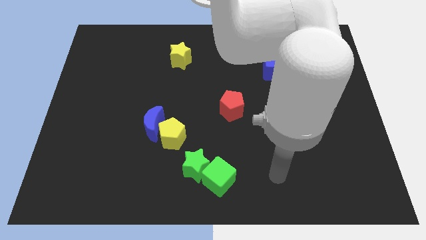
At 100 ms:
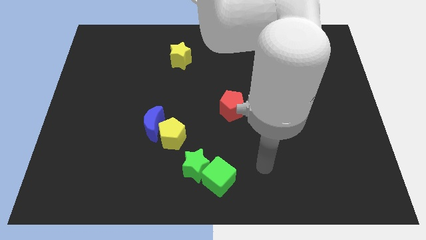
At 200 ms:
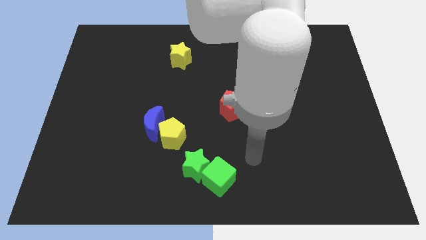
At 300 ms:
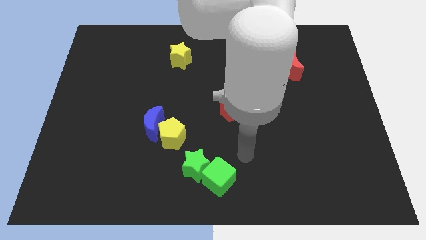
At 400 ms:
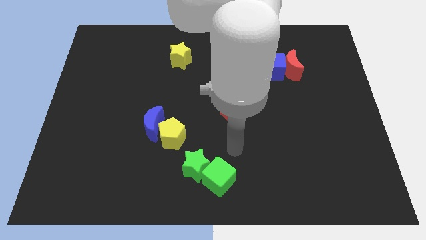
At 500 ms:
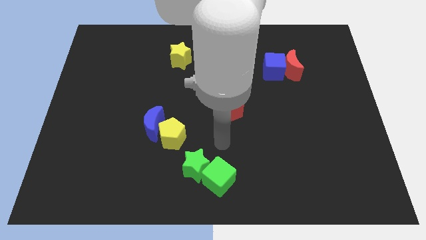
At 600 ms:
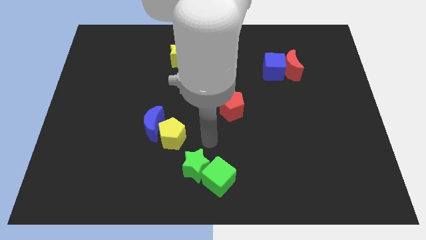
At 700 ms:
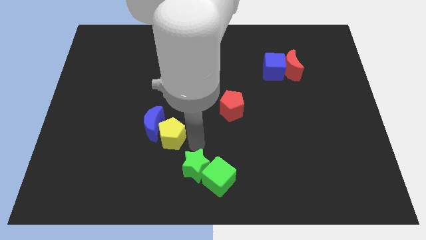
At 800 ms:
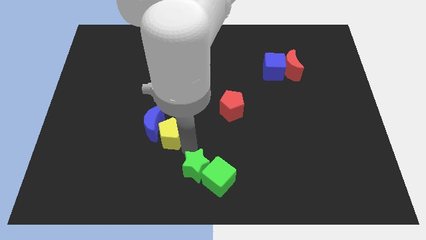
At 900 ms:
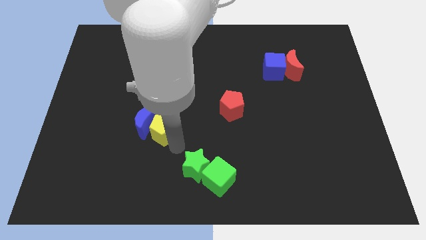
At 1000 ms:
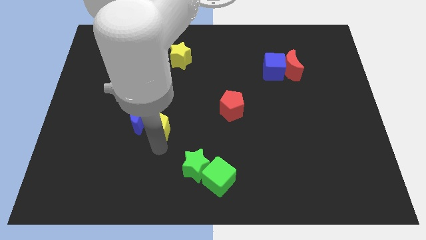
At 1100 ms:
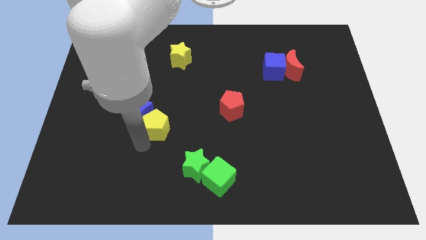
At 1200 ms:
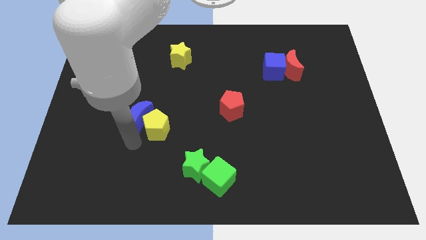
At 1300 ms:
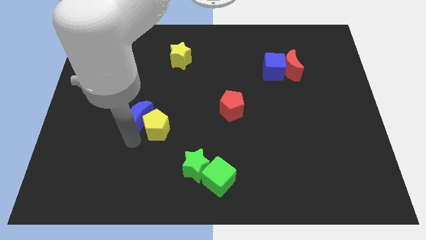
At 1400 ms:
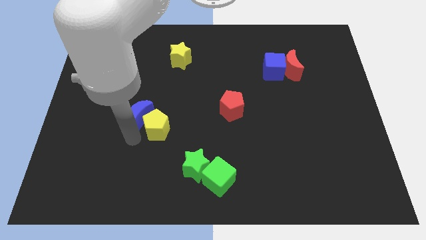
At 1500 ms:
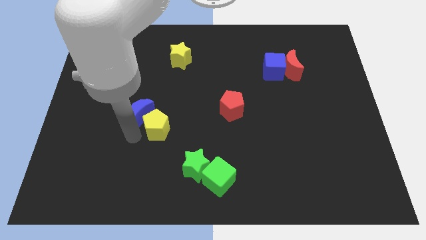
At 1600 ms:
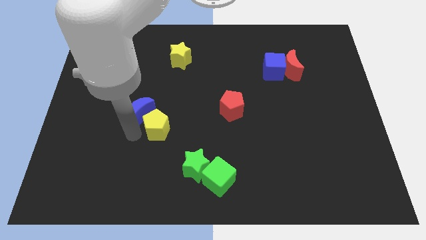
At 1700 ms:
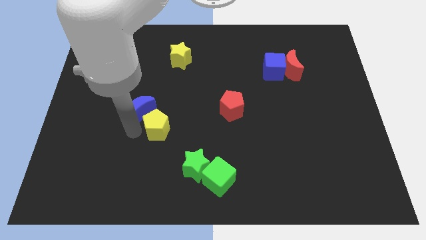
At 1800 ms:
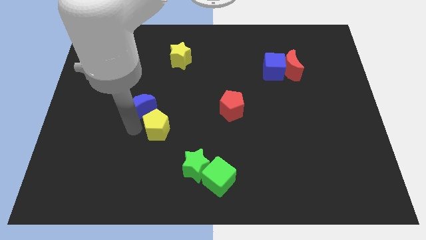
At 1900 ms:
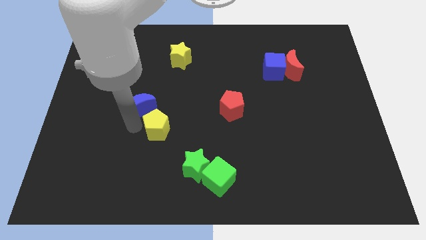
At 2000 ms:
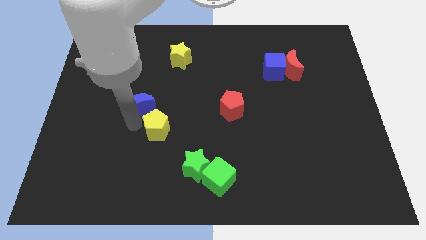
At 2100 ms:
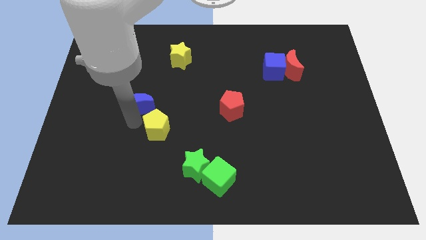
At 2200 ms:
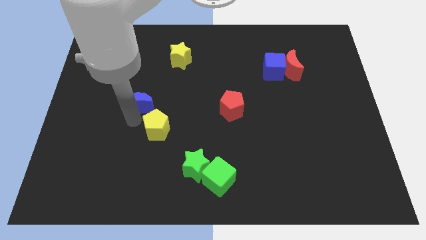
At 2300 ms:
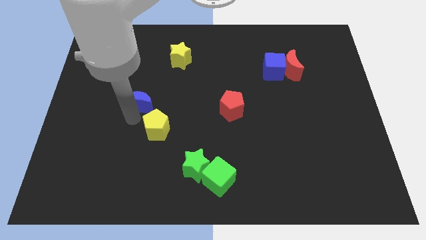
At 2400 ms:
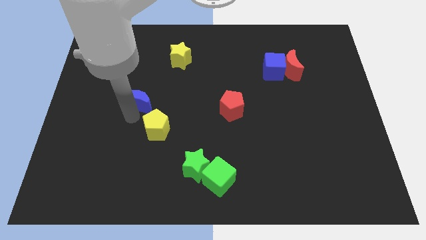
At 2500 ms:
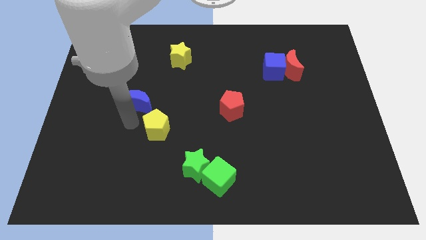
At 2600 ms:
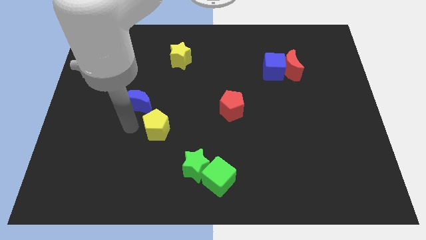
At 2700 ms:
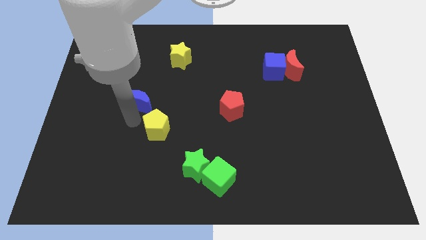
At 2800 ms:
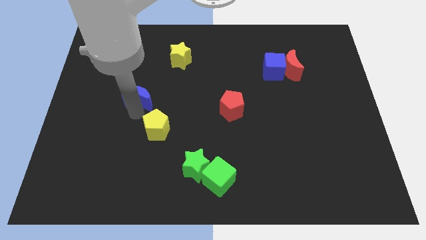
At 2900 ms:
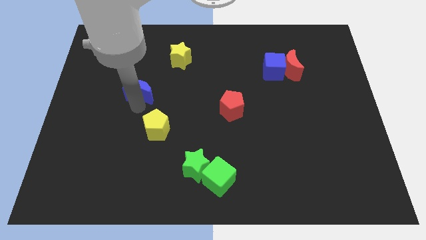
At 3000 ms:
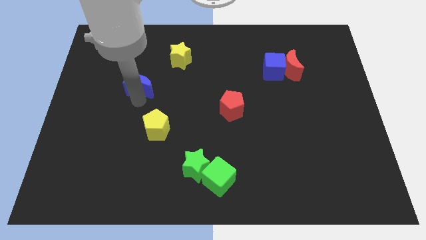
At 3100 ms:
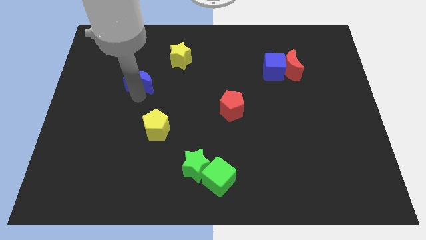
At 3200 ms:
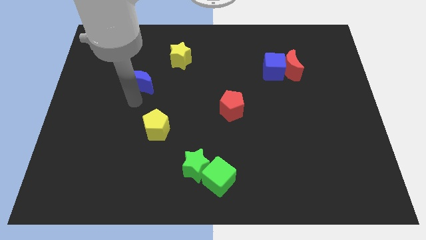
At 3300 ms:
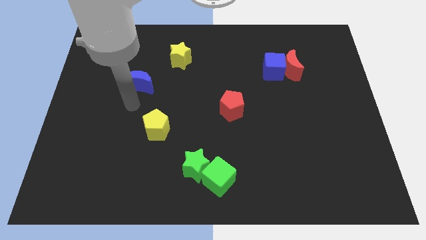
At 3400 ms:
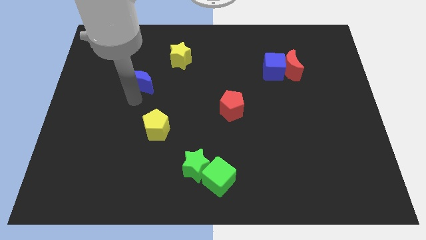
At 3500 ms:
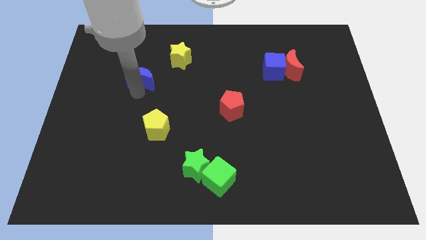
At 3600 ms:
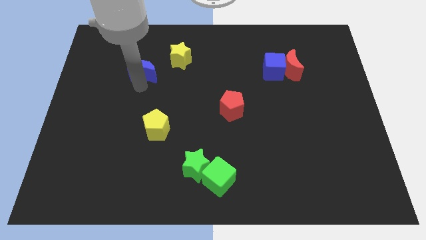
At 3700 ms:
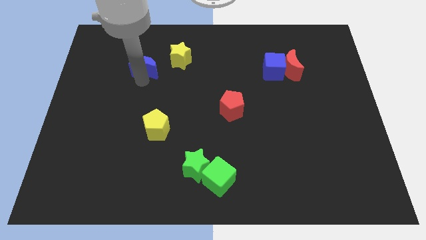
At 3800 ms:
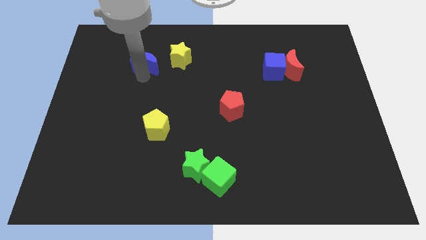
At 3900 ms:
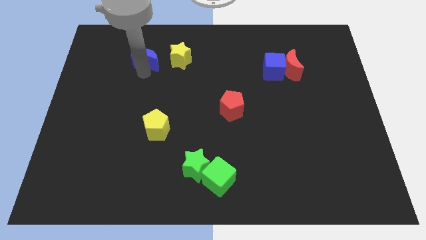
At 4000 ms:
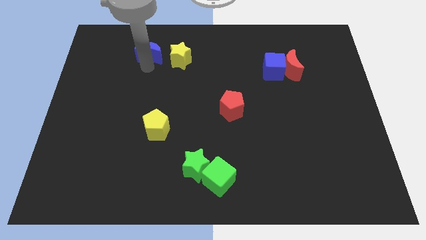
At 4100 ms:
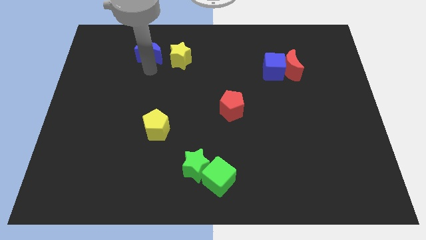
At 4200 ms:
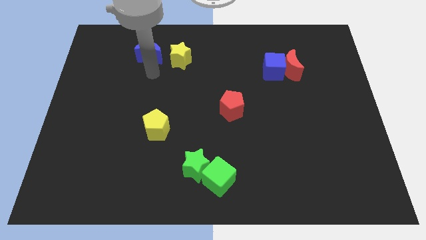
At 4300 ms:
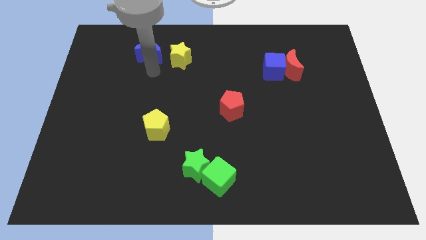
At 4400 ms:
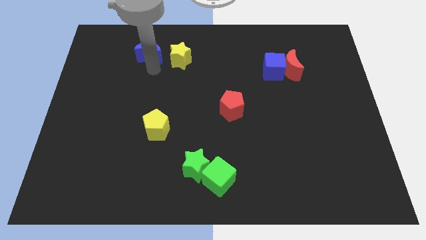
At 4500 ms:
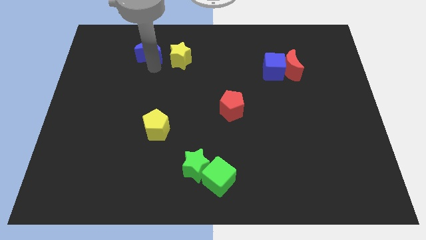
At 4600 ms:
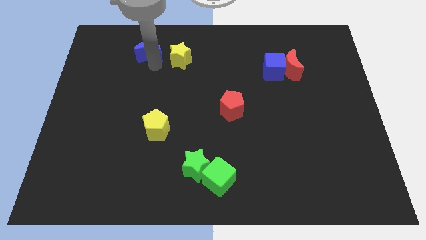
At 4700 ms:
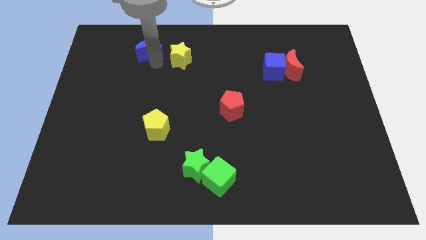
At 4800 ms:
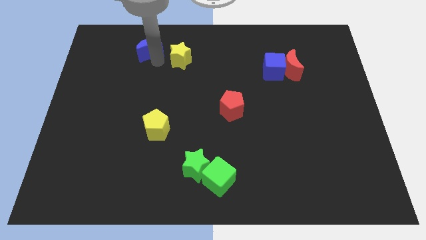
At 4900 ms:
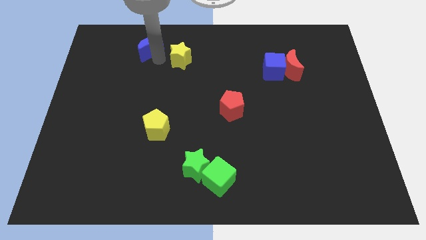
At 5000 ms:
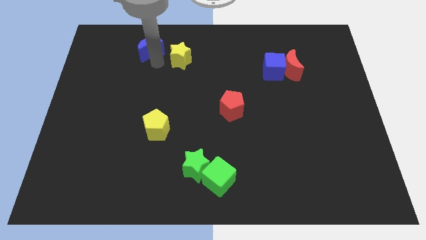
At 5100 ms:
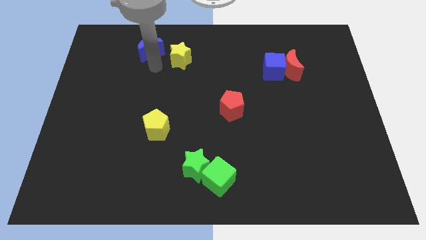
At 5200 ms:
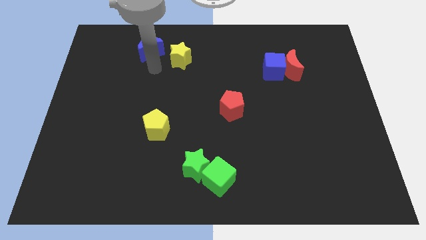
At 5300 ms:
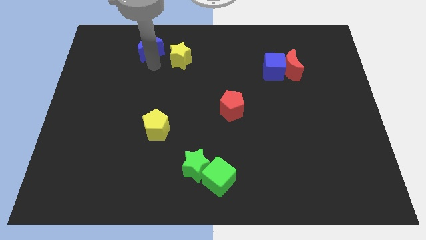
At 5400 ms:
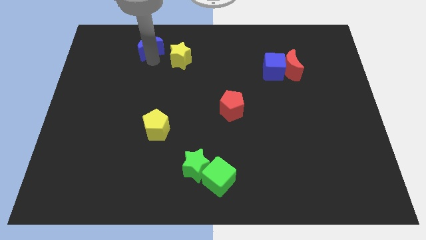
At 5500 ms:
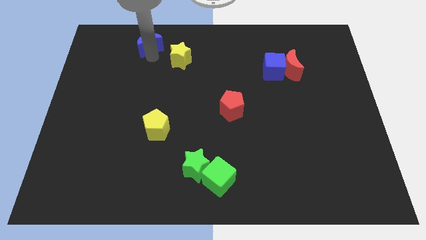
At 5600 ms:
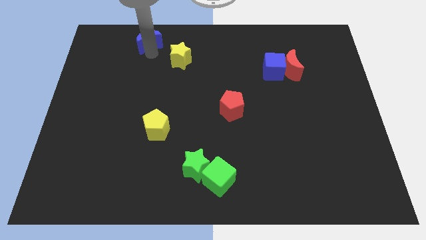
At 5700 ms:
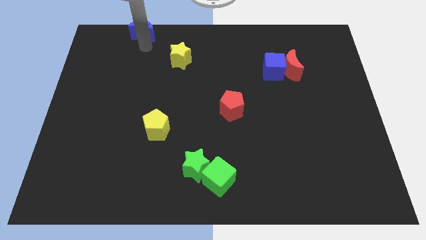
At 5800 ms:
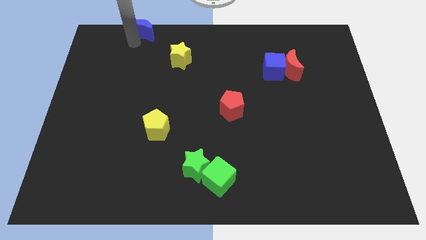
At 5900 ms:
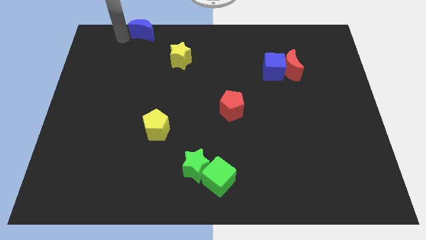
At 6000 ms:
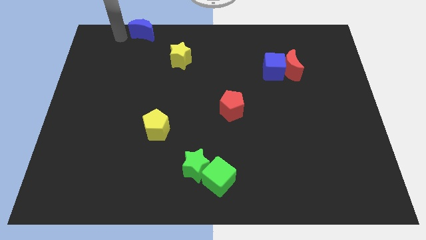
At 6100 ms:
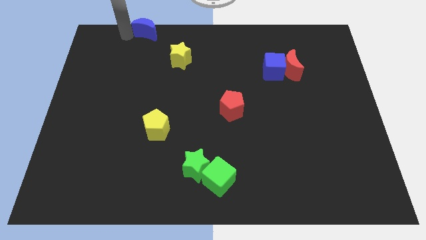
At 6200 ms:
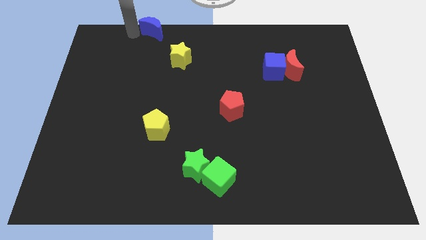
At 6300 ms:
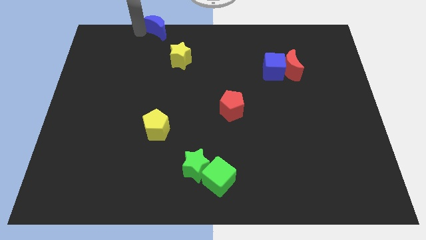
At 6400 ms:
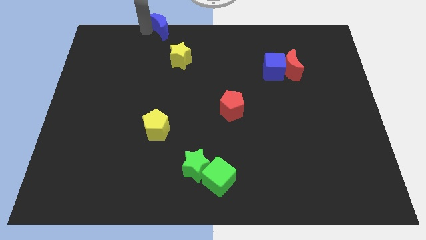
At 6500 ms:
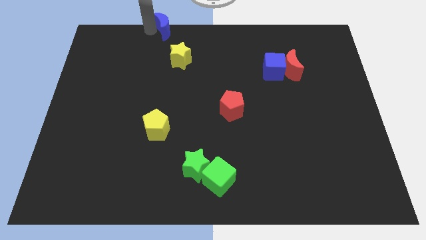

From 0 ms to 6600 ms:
push the blue moon to the towards your base
